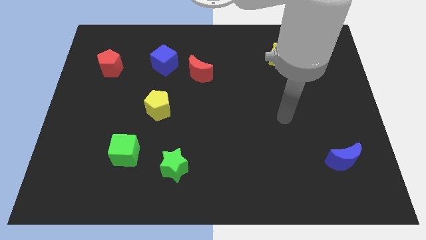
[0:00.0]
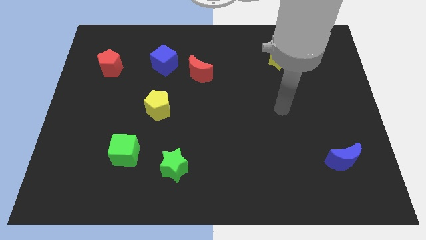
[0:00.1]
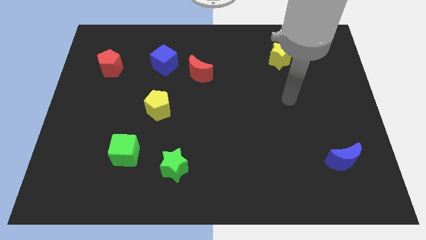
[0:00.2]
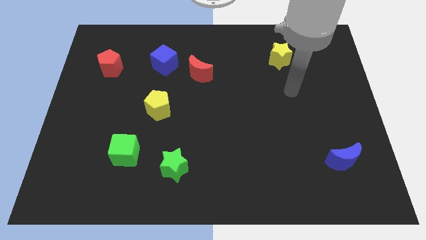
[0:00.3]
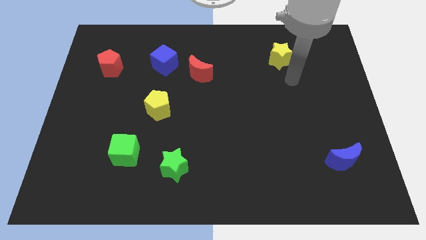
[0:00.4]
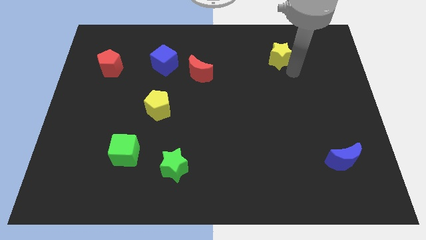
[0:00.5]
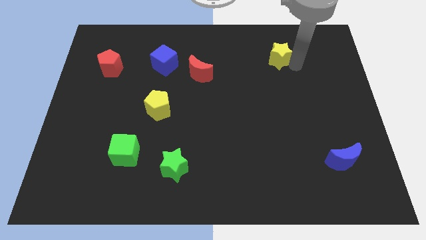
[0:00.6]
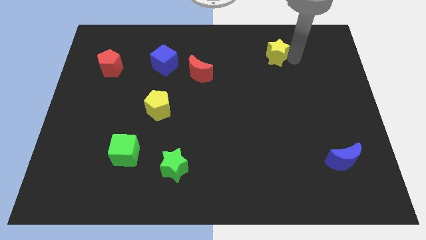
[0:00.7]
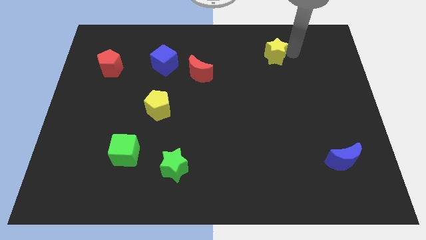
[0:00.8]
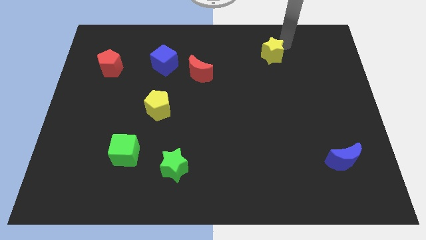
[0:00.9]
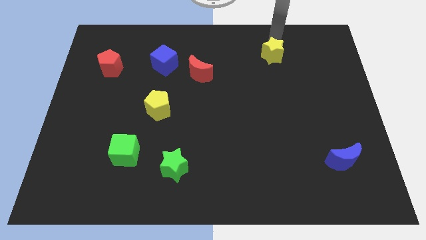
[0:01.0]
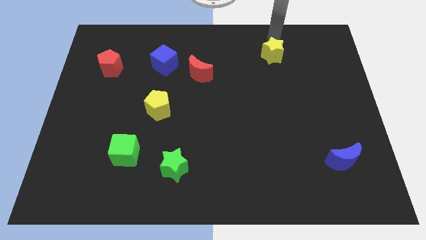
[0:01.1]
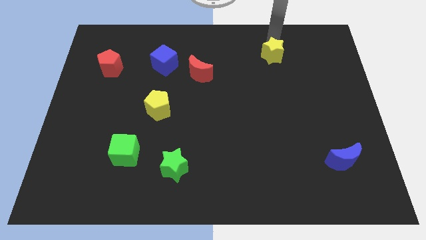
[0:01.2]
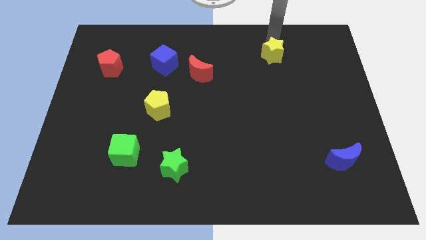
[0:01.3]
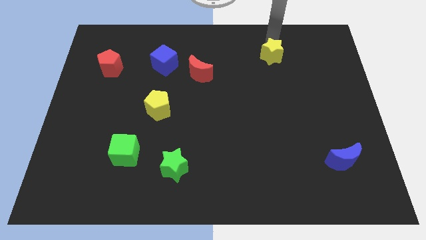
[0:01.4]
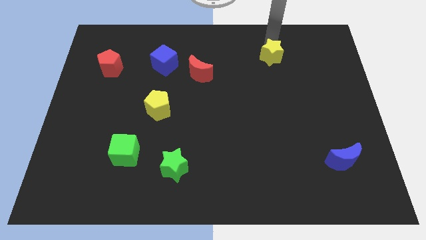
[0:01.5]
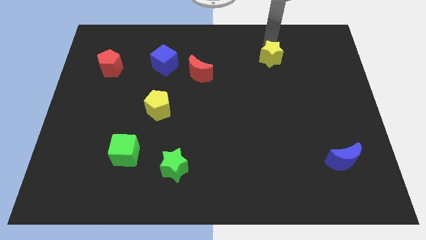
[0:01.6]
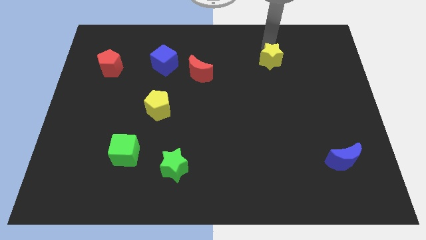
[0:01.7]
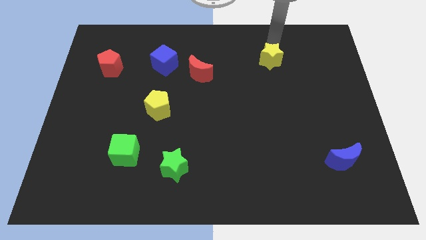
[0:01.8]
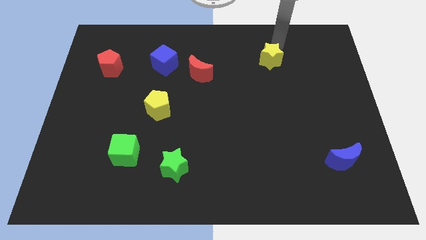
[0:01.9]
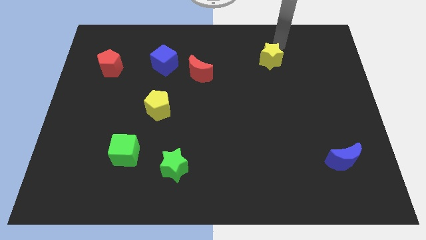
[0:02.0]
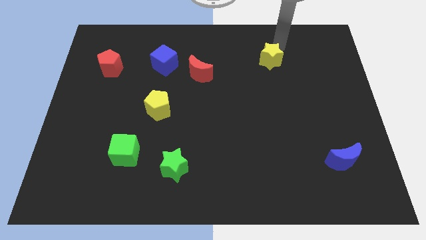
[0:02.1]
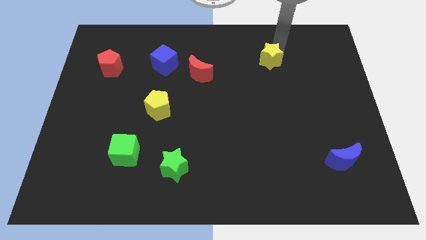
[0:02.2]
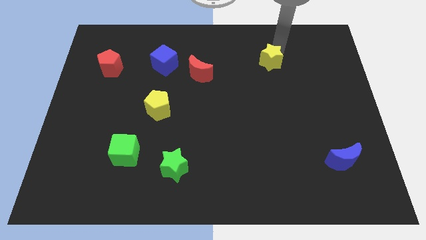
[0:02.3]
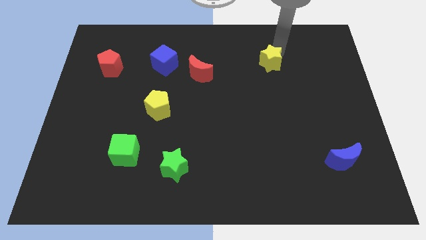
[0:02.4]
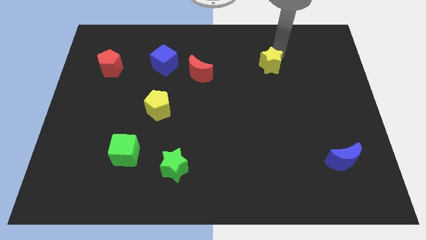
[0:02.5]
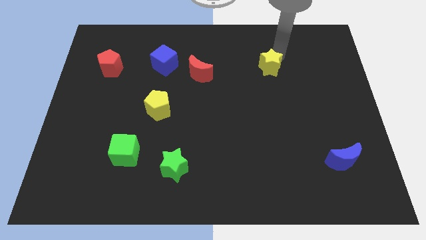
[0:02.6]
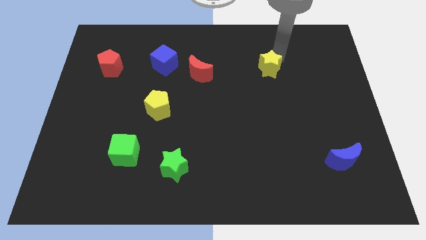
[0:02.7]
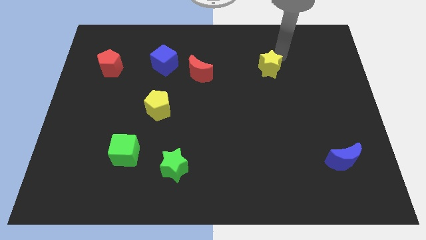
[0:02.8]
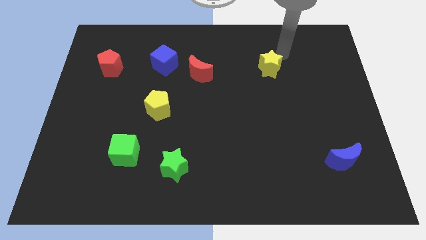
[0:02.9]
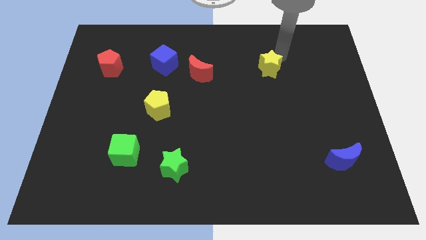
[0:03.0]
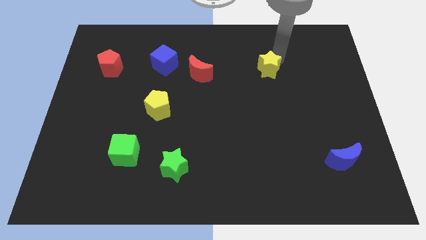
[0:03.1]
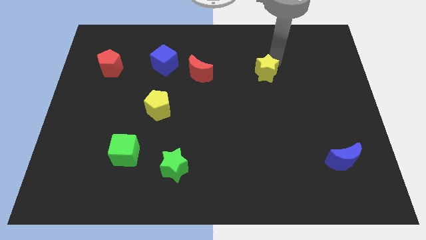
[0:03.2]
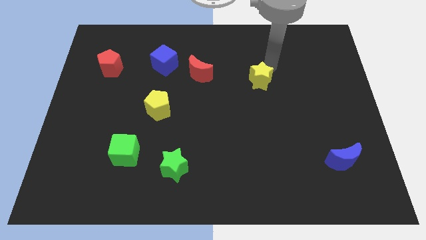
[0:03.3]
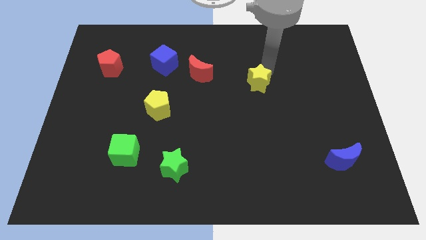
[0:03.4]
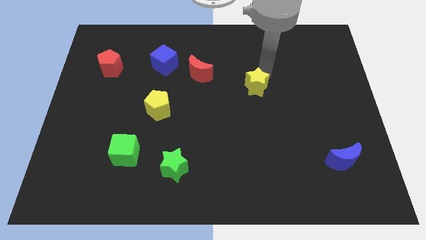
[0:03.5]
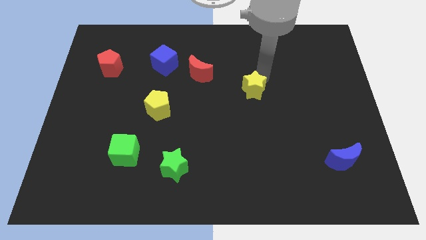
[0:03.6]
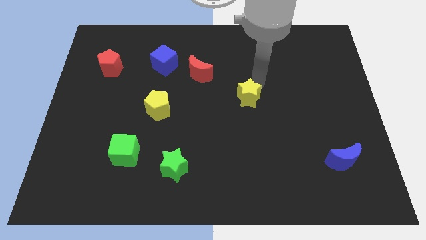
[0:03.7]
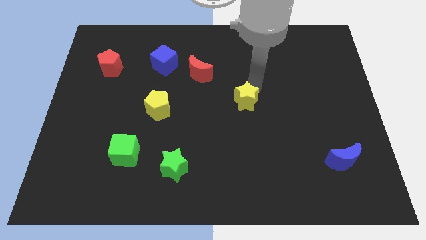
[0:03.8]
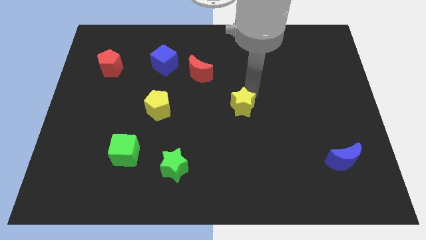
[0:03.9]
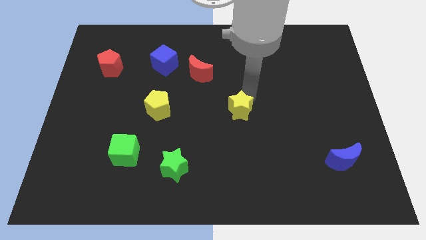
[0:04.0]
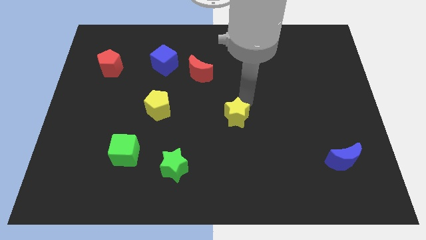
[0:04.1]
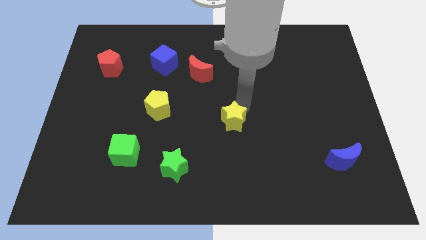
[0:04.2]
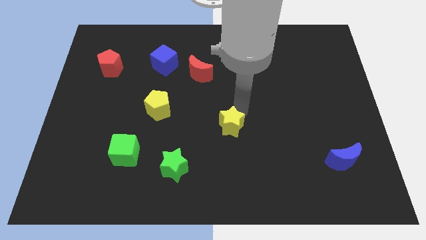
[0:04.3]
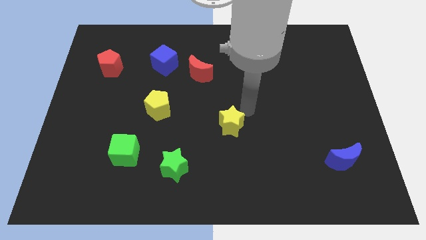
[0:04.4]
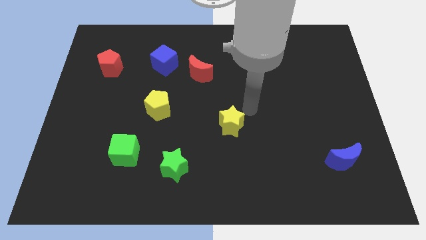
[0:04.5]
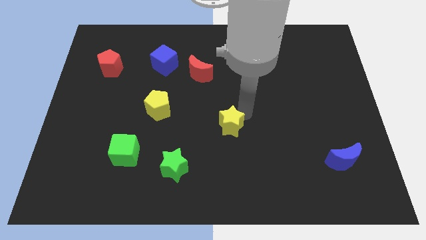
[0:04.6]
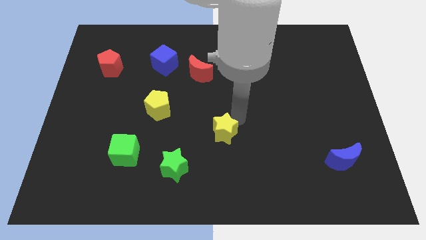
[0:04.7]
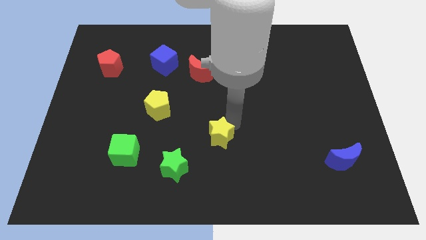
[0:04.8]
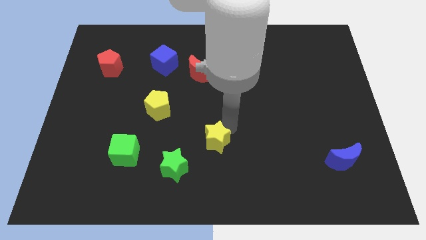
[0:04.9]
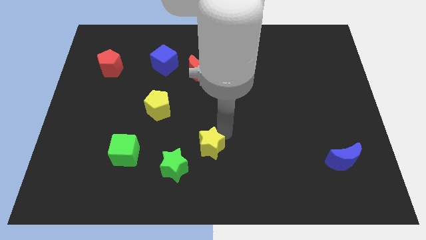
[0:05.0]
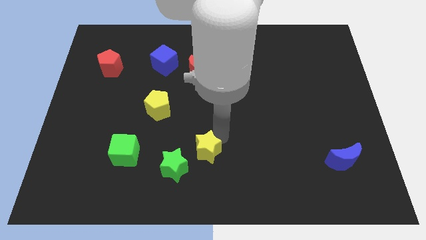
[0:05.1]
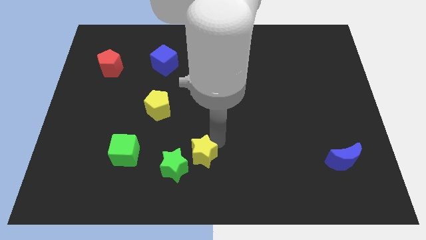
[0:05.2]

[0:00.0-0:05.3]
move the yellow star towards the green star

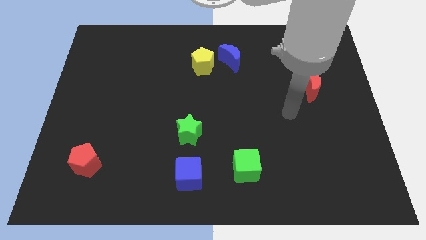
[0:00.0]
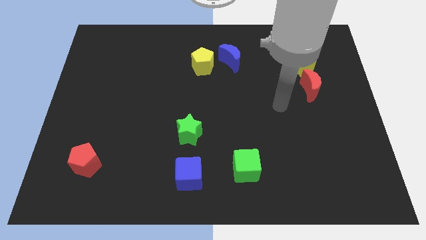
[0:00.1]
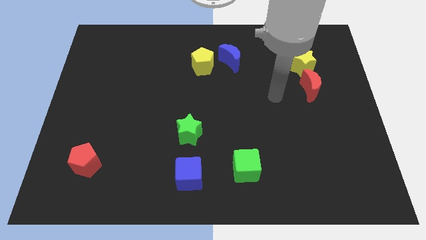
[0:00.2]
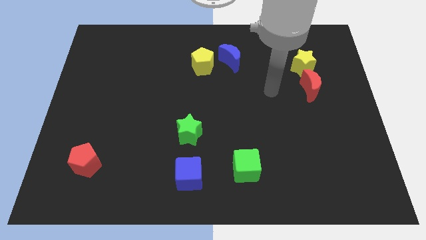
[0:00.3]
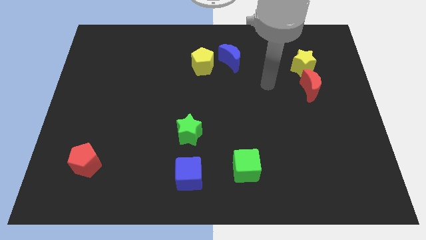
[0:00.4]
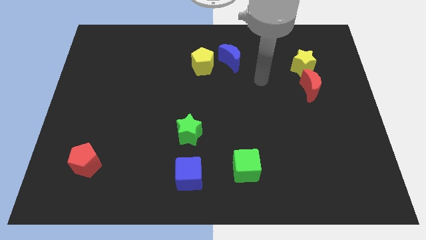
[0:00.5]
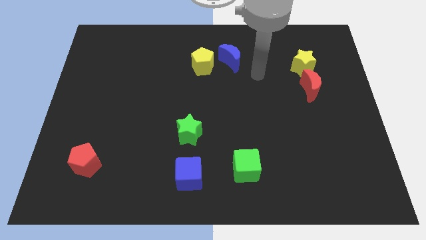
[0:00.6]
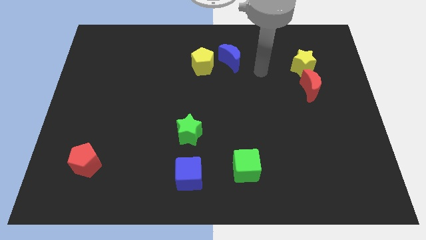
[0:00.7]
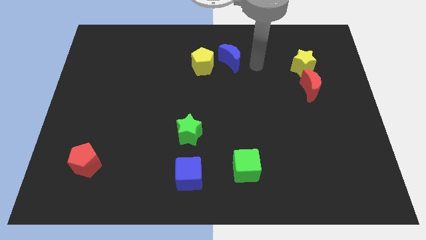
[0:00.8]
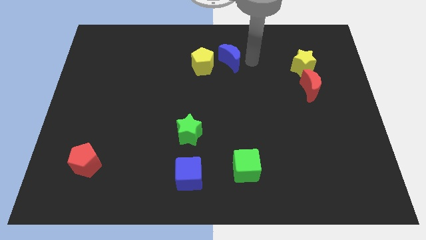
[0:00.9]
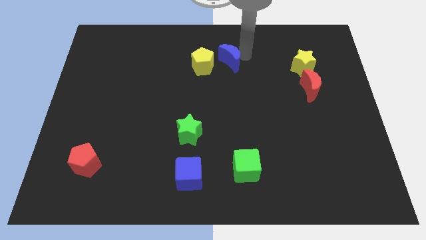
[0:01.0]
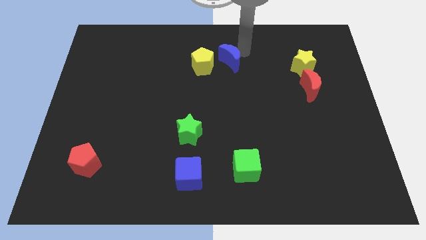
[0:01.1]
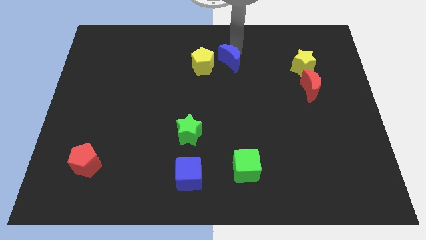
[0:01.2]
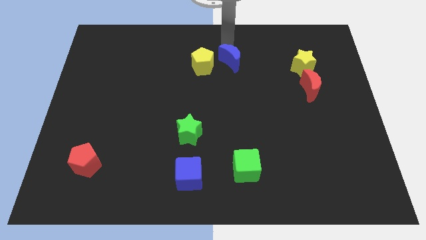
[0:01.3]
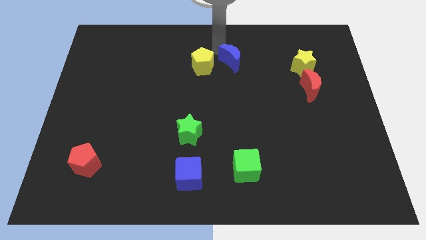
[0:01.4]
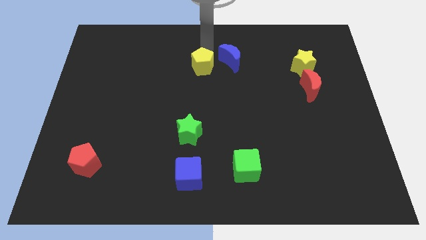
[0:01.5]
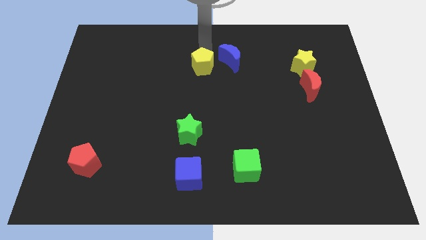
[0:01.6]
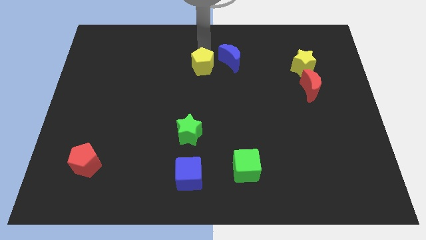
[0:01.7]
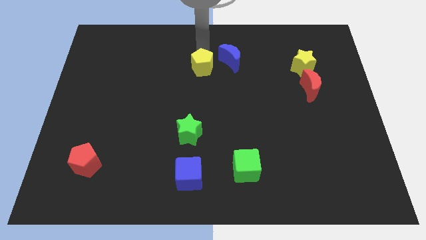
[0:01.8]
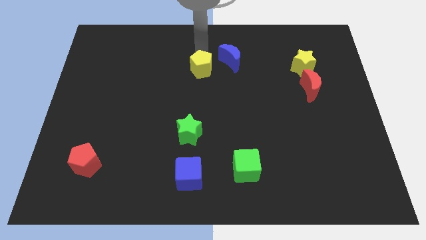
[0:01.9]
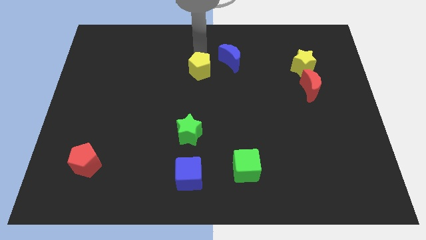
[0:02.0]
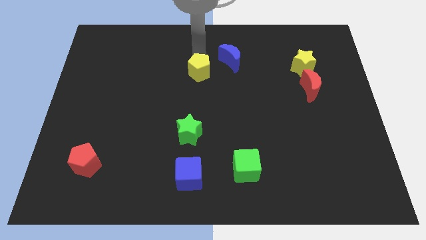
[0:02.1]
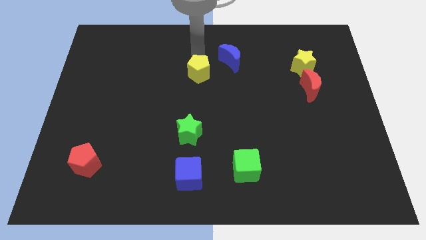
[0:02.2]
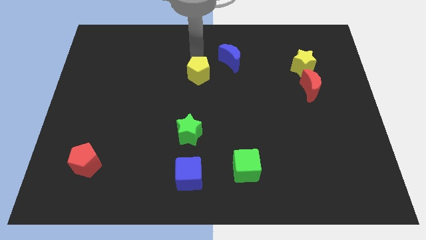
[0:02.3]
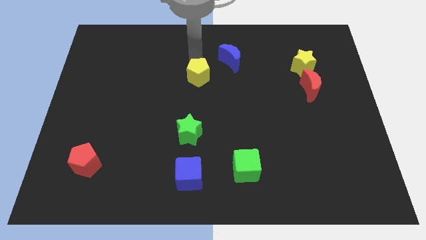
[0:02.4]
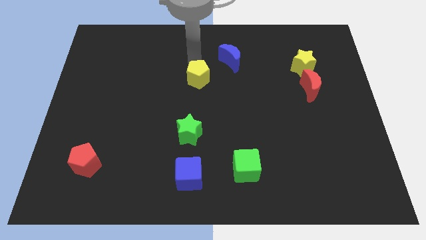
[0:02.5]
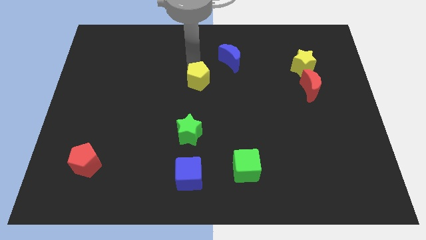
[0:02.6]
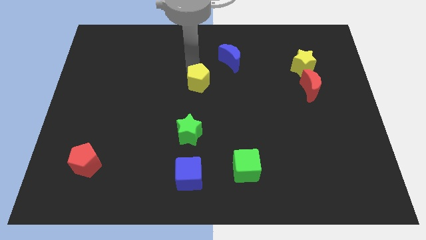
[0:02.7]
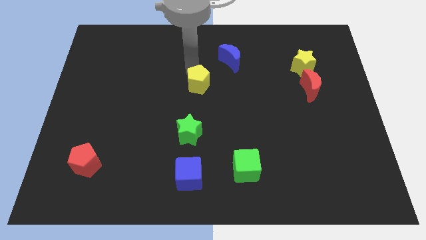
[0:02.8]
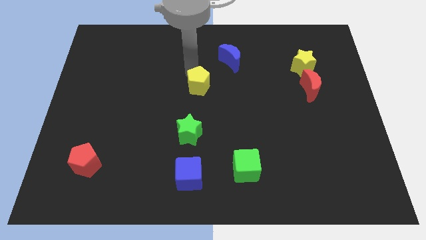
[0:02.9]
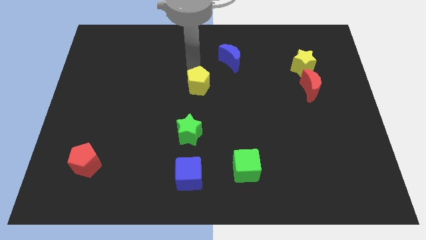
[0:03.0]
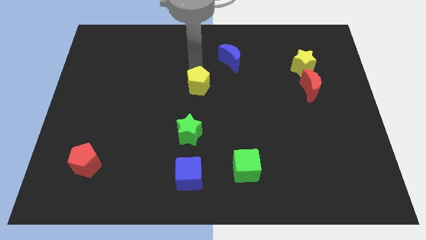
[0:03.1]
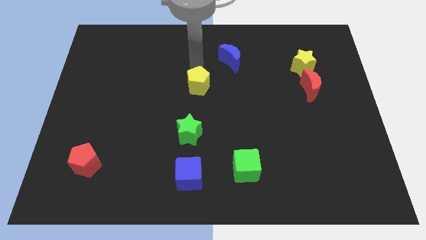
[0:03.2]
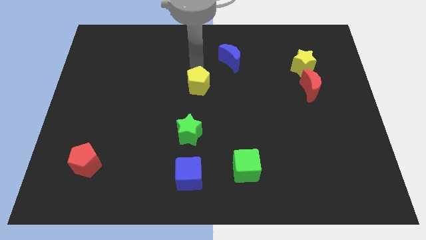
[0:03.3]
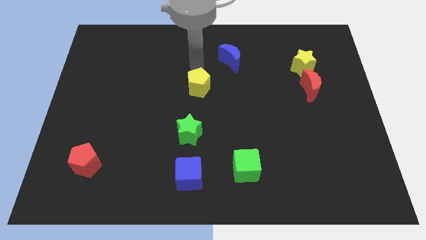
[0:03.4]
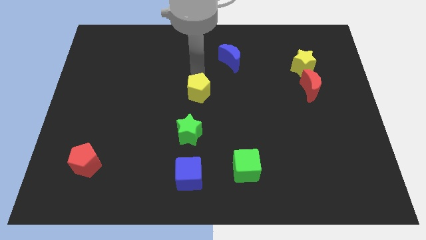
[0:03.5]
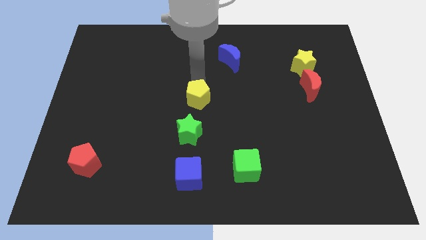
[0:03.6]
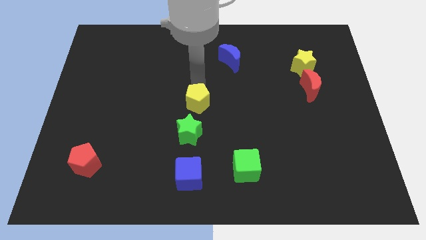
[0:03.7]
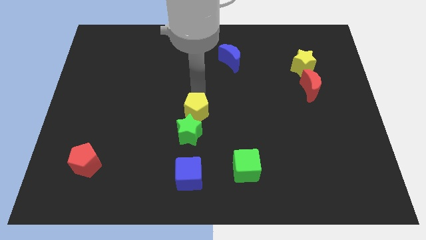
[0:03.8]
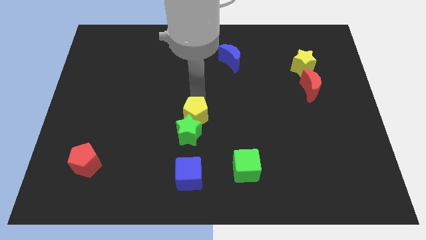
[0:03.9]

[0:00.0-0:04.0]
put the yellow pentagon towards the green star
